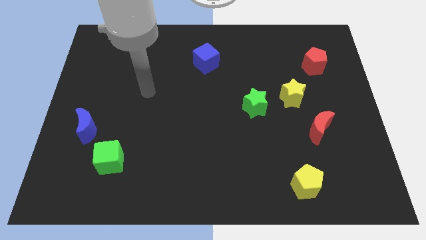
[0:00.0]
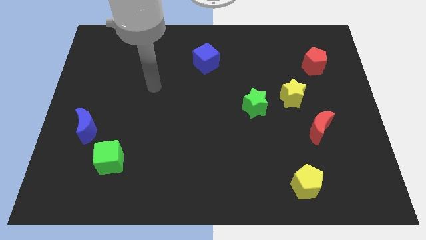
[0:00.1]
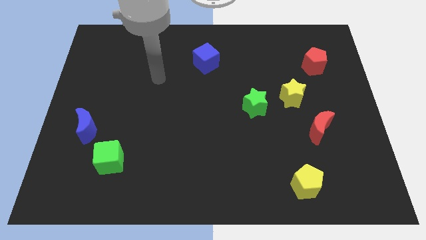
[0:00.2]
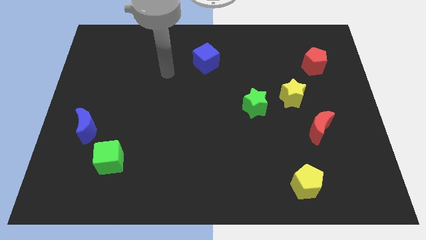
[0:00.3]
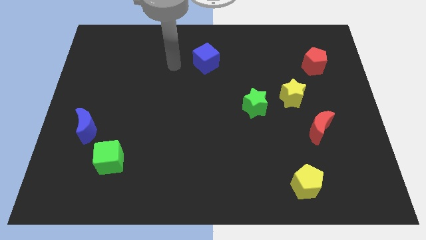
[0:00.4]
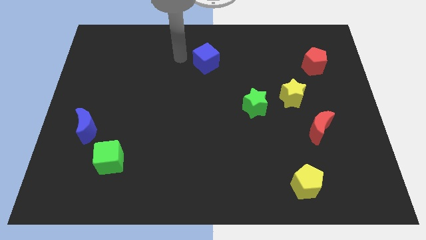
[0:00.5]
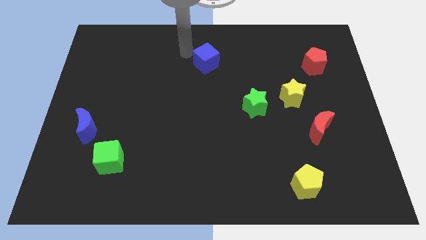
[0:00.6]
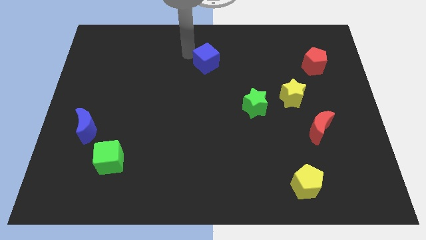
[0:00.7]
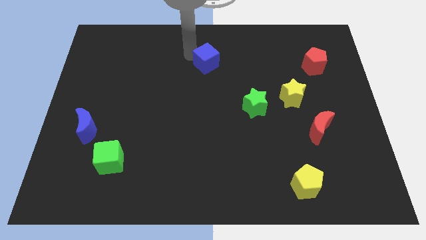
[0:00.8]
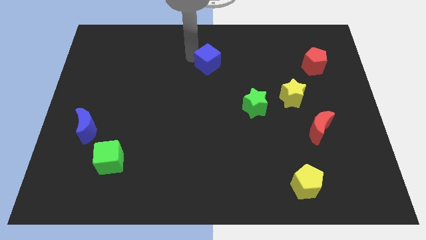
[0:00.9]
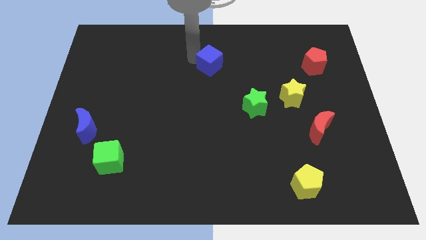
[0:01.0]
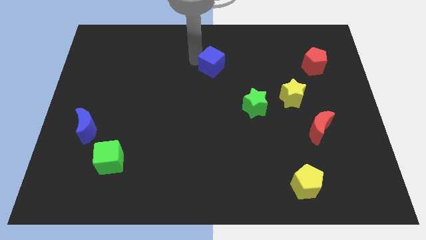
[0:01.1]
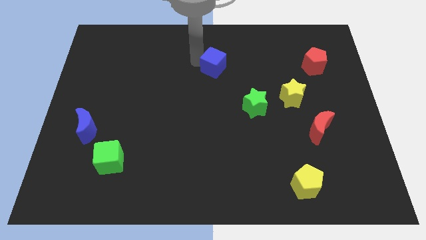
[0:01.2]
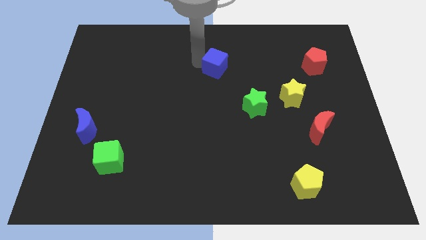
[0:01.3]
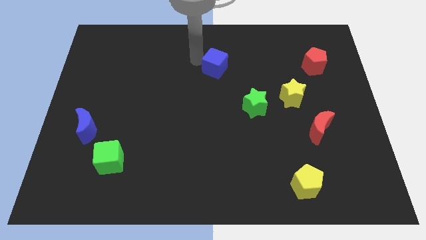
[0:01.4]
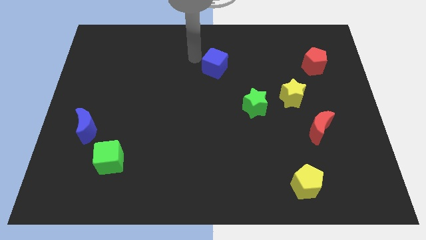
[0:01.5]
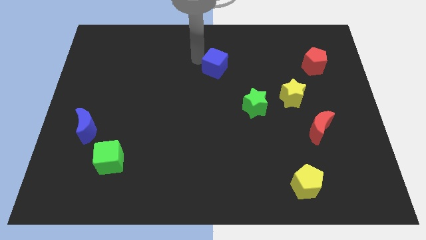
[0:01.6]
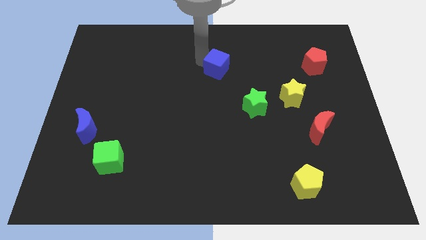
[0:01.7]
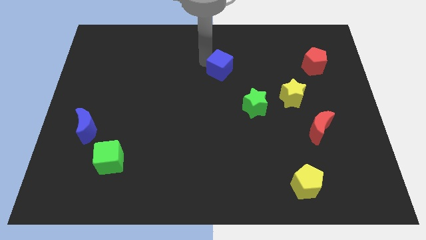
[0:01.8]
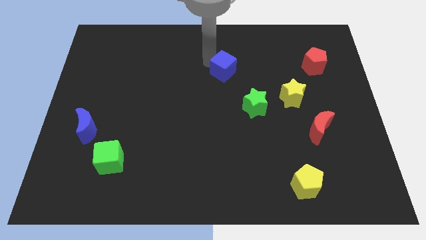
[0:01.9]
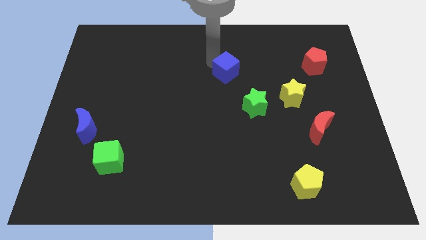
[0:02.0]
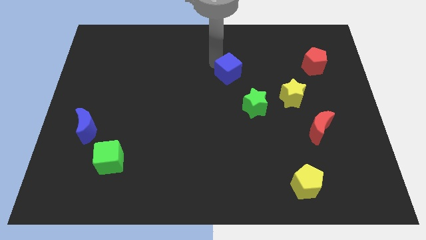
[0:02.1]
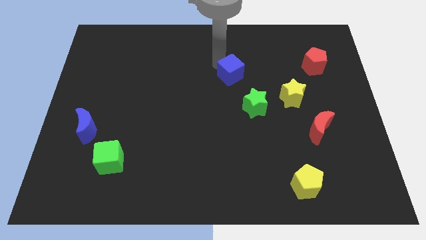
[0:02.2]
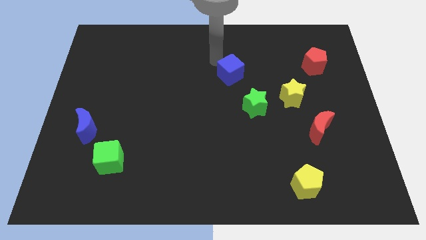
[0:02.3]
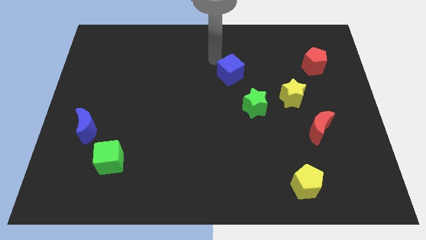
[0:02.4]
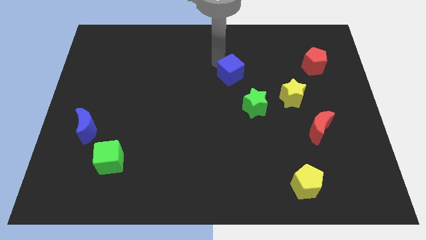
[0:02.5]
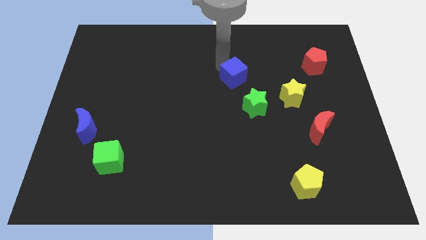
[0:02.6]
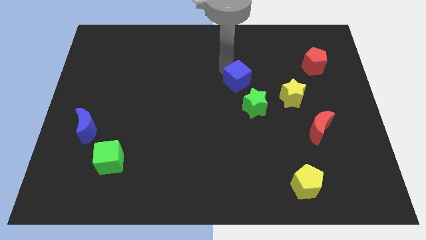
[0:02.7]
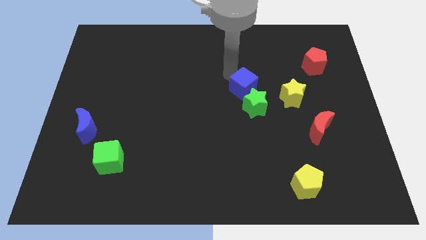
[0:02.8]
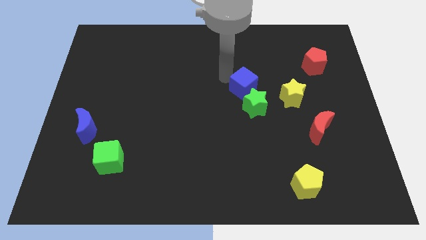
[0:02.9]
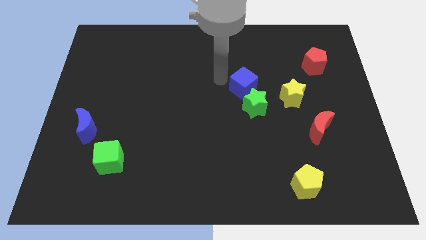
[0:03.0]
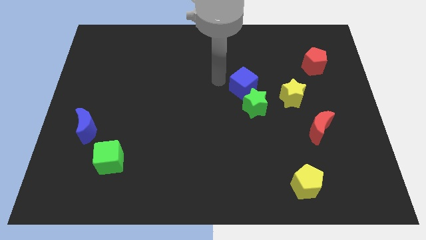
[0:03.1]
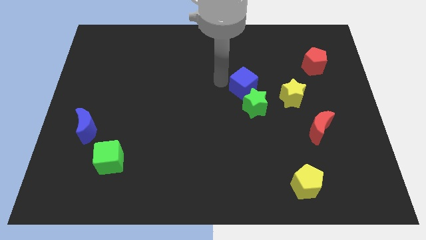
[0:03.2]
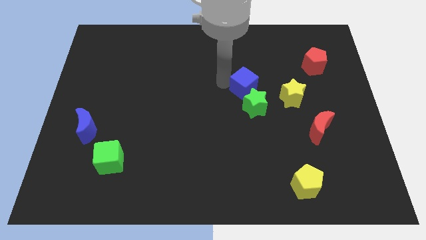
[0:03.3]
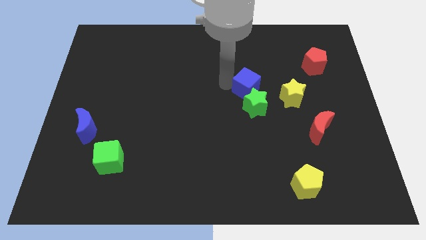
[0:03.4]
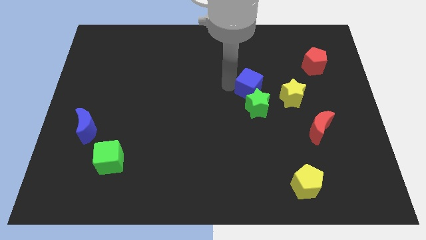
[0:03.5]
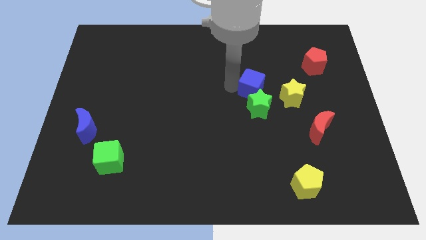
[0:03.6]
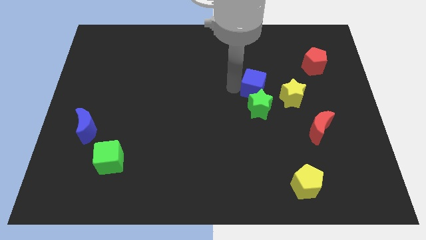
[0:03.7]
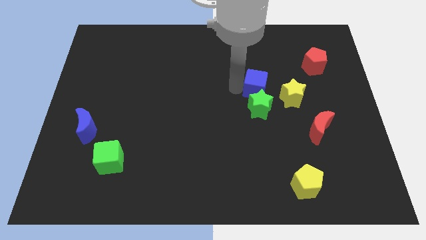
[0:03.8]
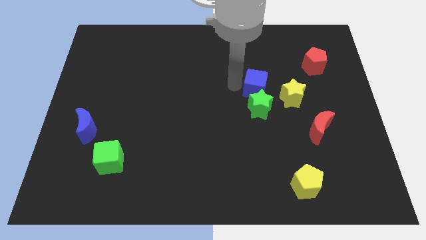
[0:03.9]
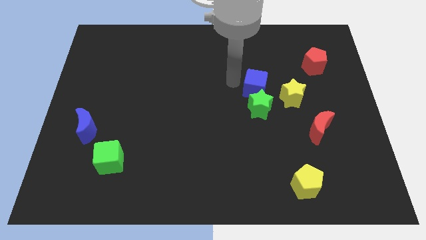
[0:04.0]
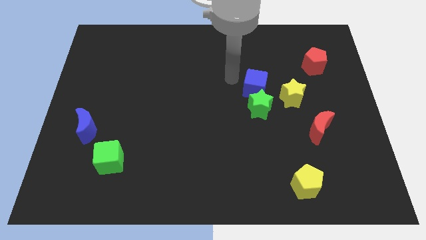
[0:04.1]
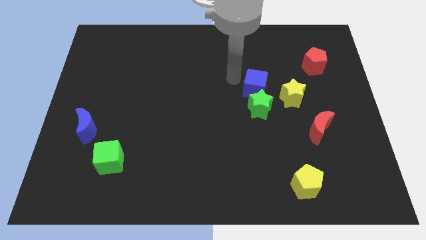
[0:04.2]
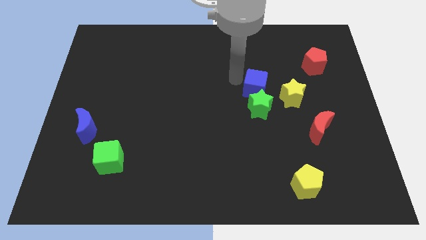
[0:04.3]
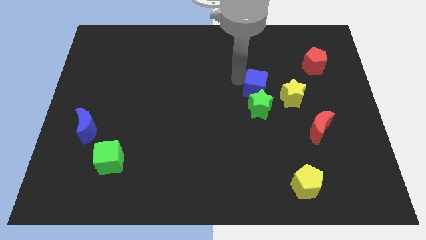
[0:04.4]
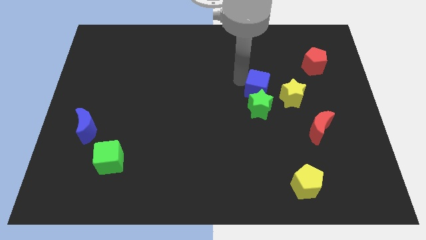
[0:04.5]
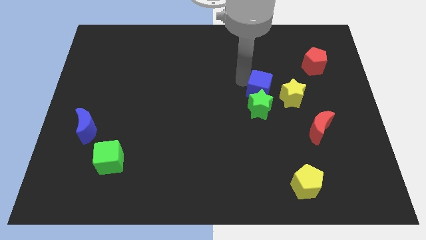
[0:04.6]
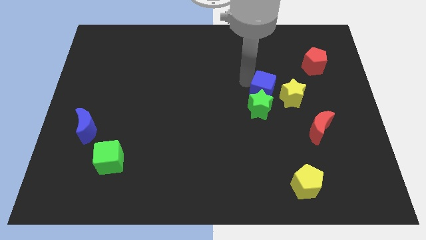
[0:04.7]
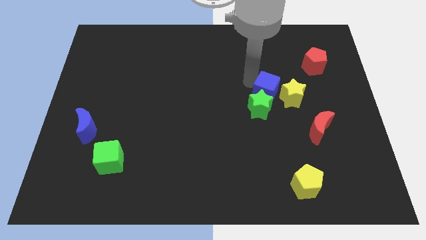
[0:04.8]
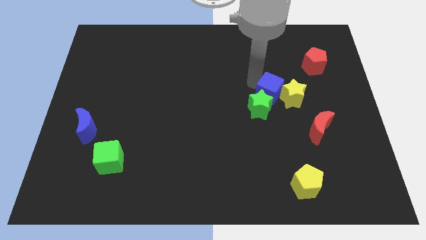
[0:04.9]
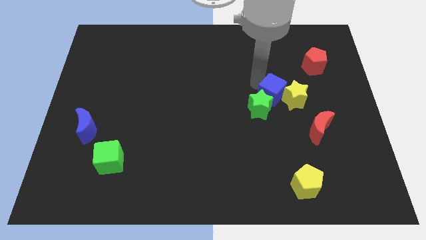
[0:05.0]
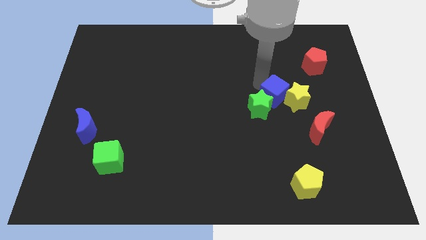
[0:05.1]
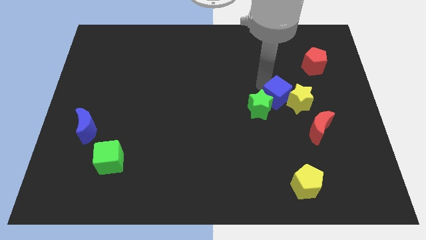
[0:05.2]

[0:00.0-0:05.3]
push the blue cube diagonally up and to the left of the red moon

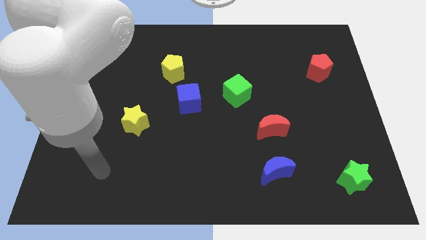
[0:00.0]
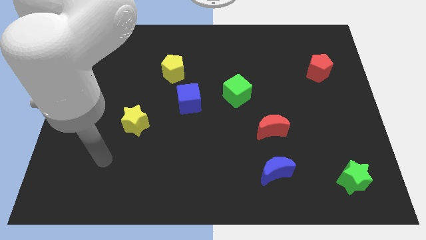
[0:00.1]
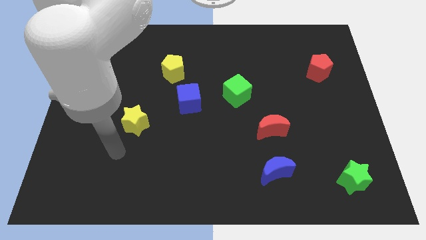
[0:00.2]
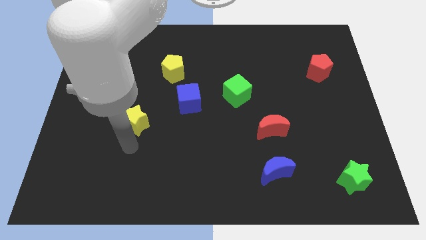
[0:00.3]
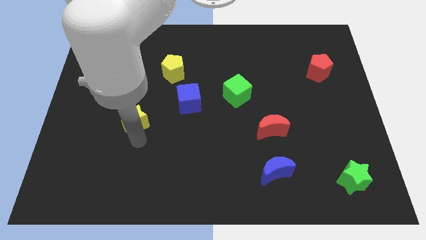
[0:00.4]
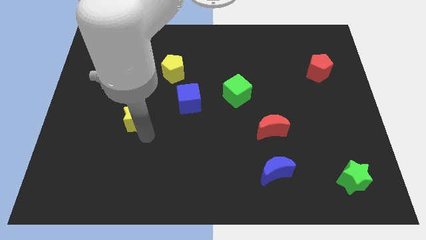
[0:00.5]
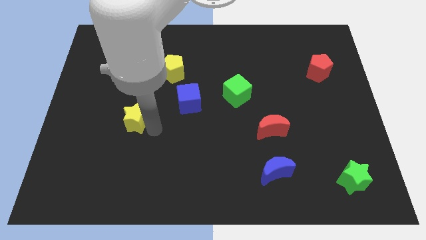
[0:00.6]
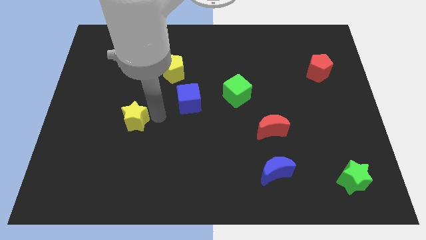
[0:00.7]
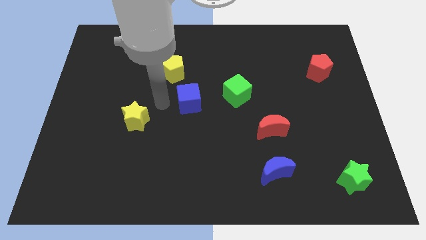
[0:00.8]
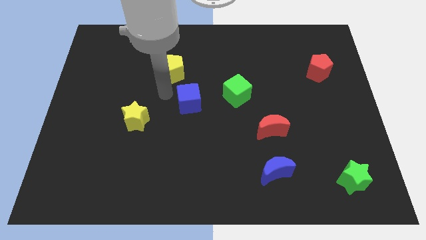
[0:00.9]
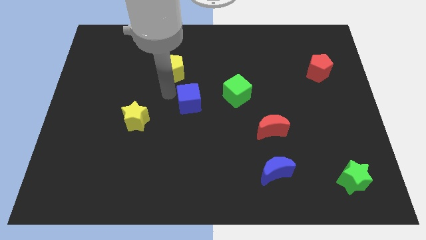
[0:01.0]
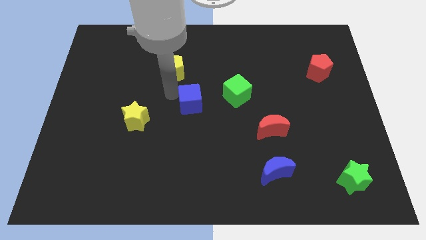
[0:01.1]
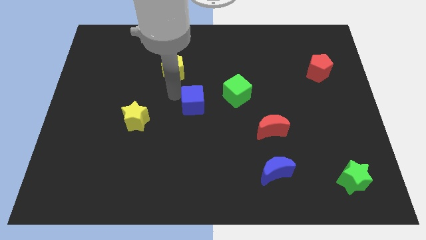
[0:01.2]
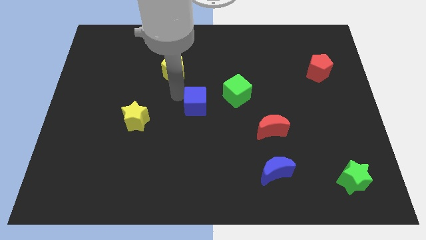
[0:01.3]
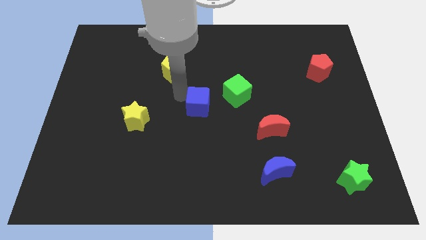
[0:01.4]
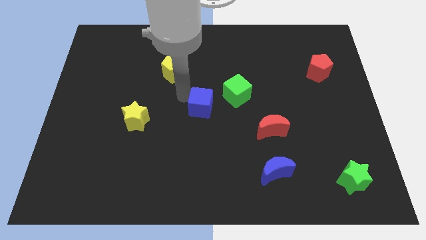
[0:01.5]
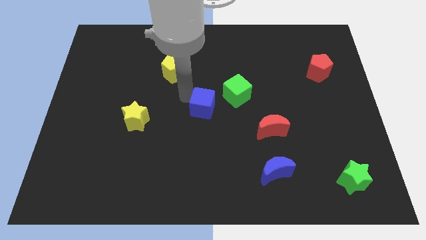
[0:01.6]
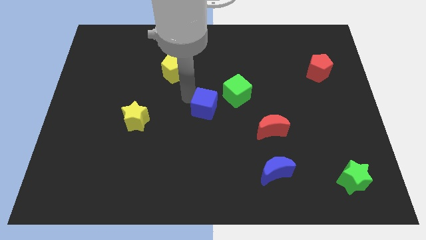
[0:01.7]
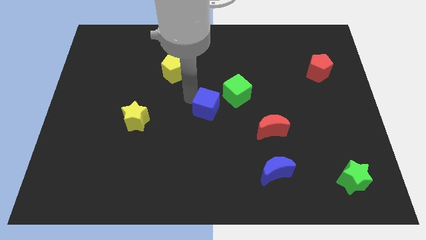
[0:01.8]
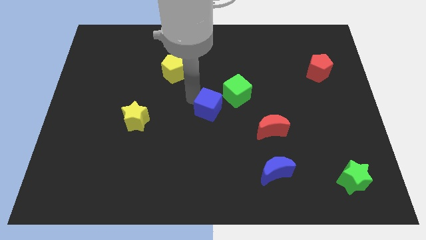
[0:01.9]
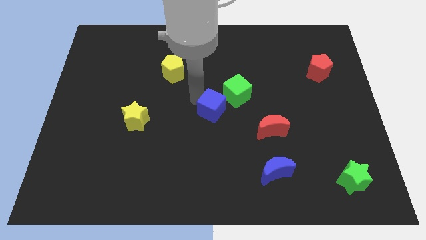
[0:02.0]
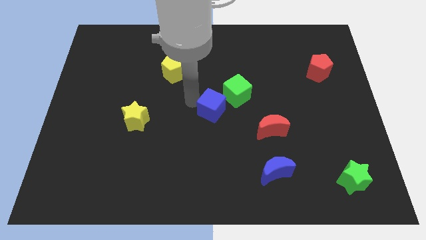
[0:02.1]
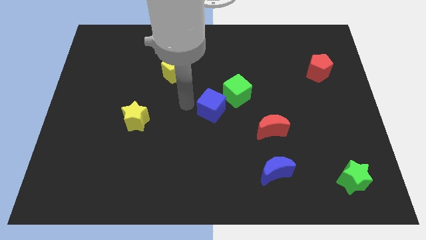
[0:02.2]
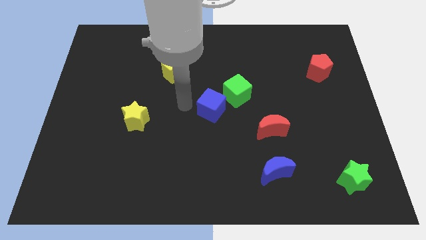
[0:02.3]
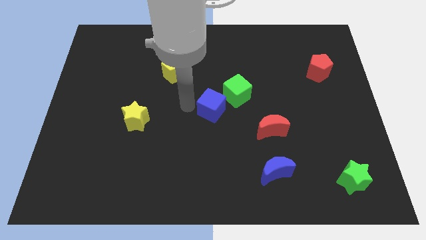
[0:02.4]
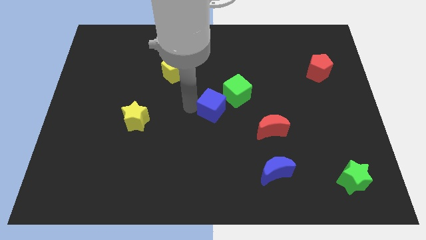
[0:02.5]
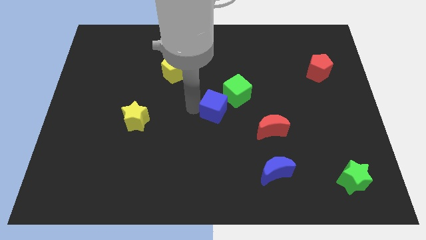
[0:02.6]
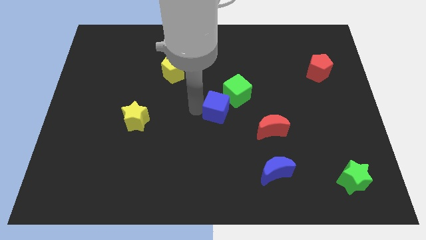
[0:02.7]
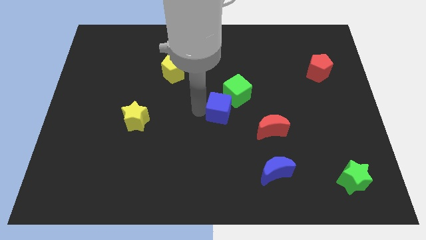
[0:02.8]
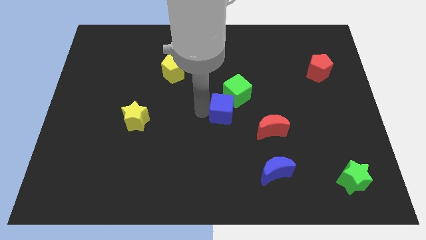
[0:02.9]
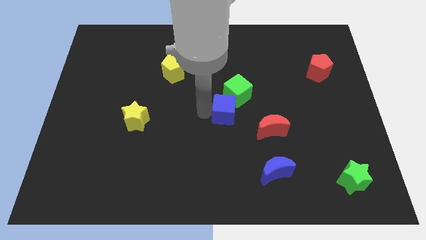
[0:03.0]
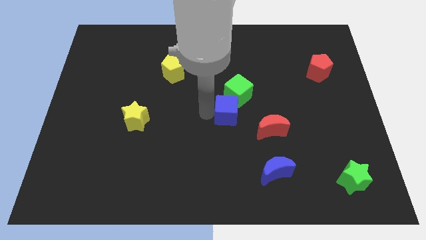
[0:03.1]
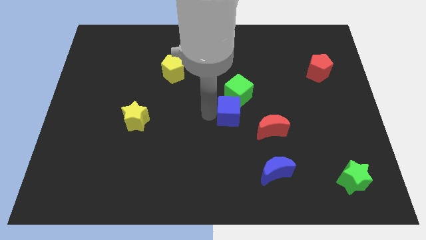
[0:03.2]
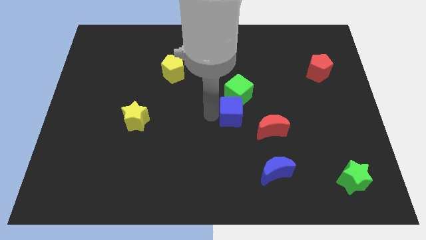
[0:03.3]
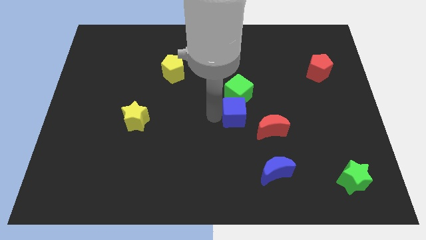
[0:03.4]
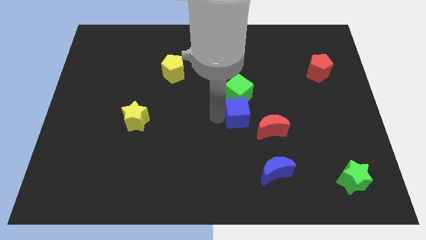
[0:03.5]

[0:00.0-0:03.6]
move the blue cube to the bottom right of the green cube
